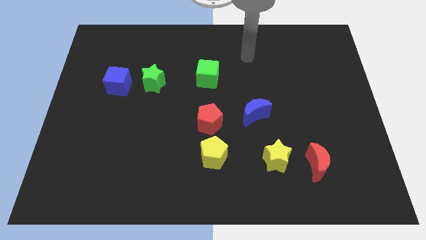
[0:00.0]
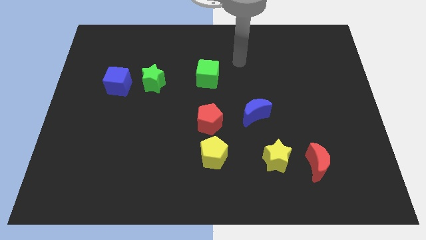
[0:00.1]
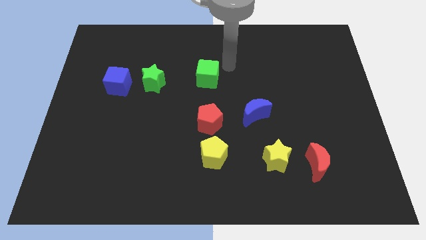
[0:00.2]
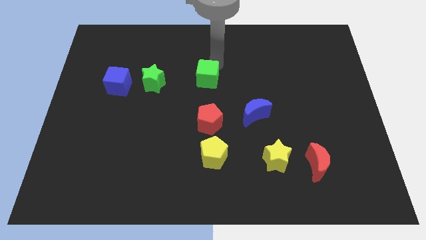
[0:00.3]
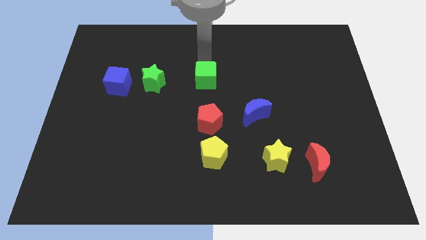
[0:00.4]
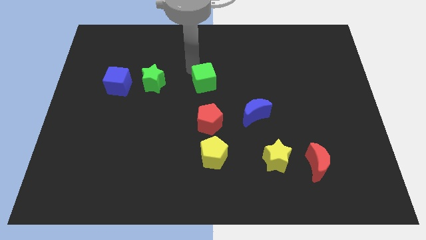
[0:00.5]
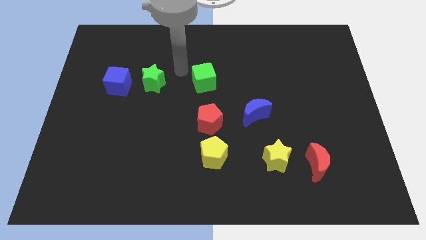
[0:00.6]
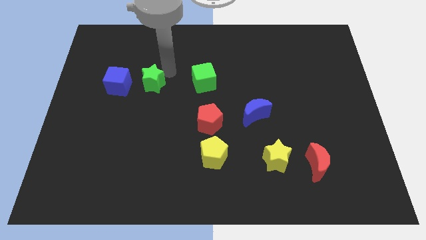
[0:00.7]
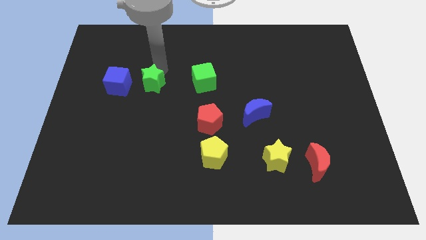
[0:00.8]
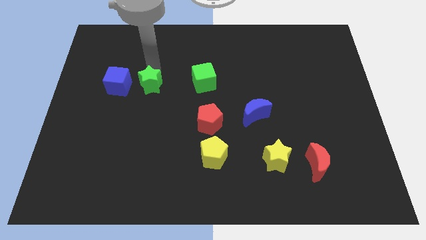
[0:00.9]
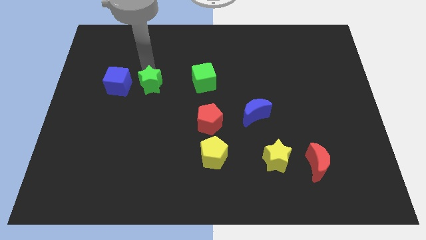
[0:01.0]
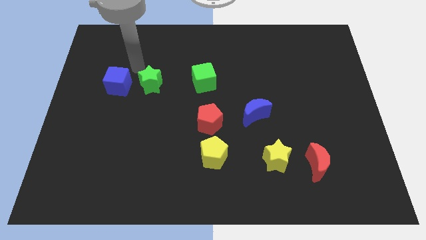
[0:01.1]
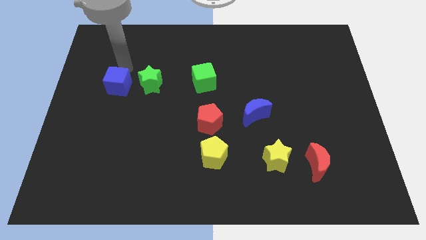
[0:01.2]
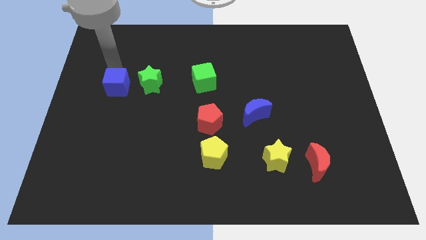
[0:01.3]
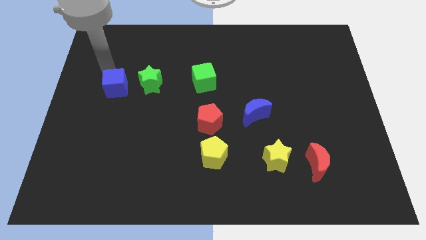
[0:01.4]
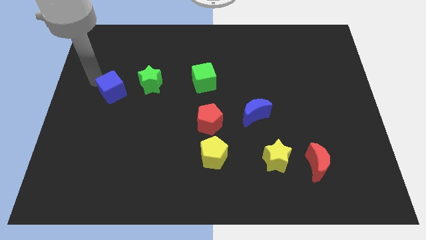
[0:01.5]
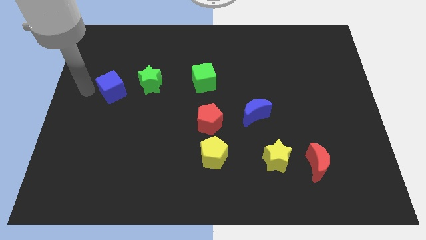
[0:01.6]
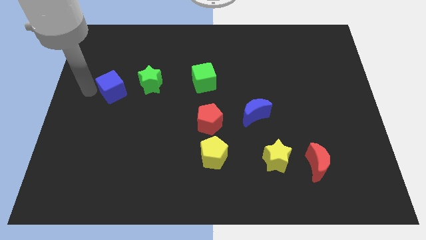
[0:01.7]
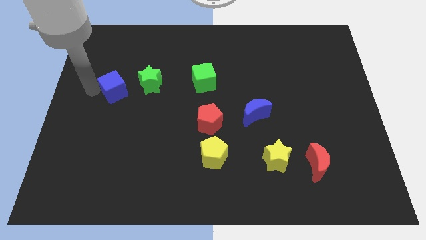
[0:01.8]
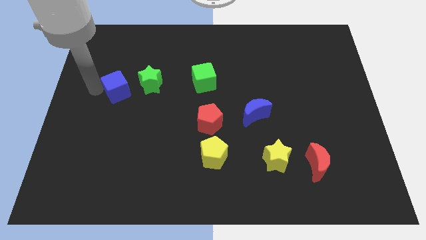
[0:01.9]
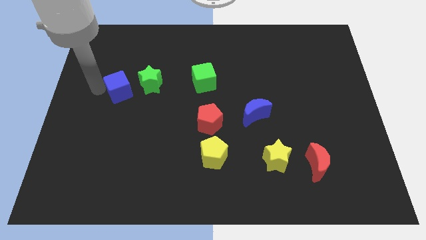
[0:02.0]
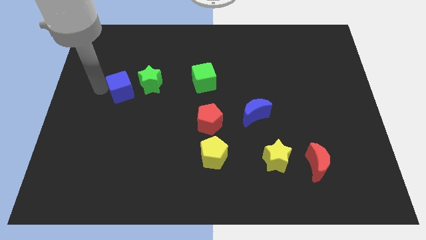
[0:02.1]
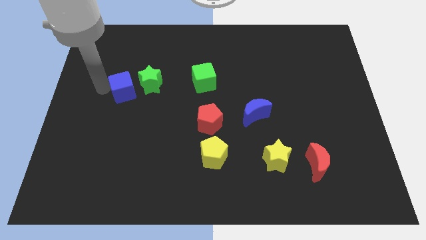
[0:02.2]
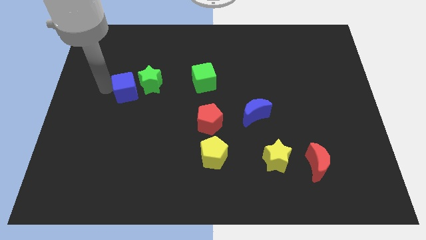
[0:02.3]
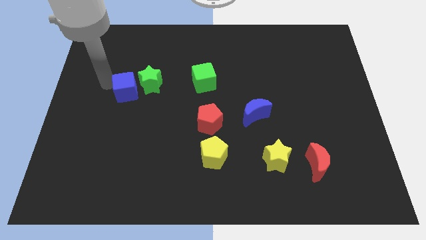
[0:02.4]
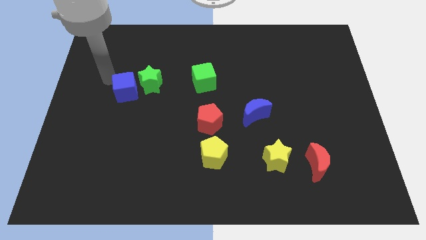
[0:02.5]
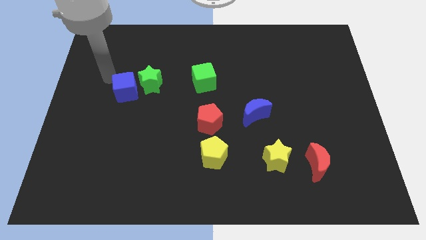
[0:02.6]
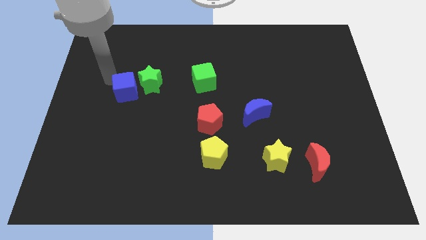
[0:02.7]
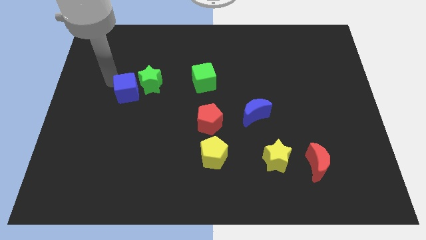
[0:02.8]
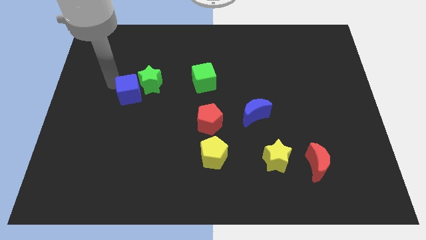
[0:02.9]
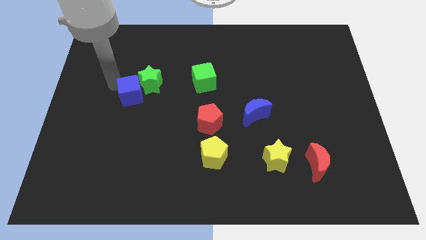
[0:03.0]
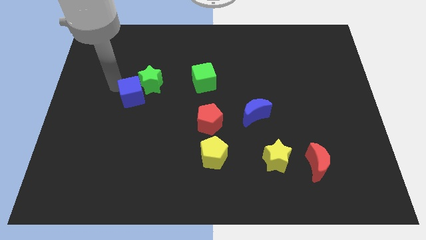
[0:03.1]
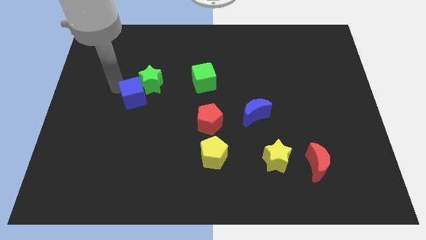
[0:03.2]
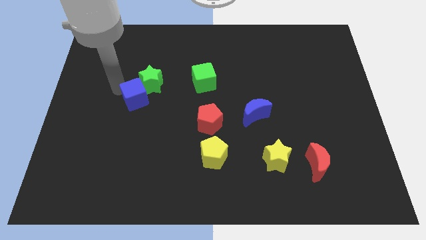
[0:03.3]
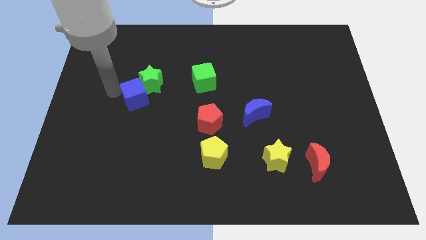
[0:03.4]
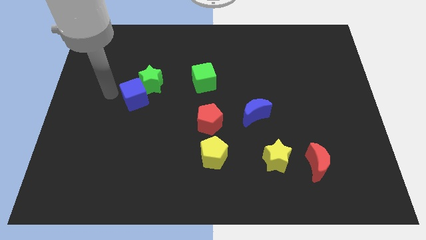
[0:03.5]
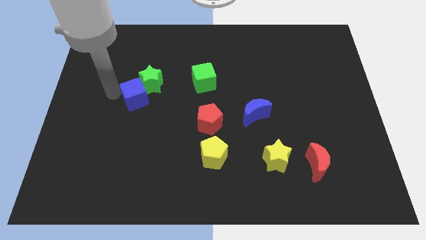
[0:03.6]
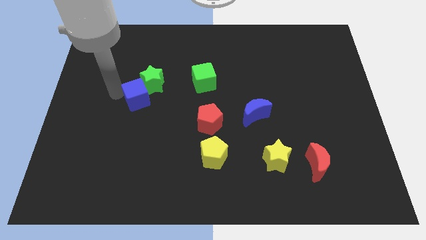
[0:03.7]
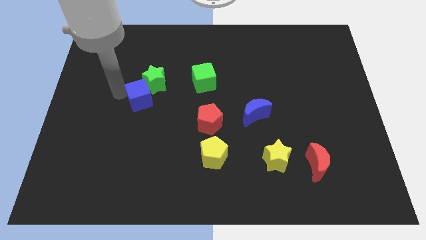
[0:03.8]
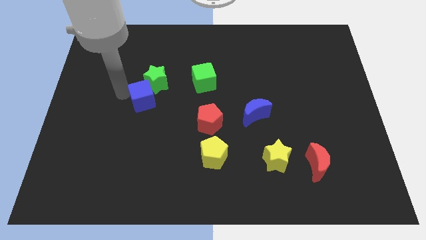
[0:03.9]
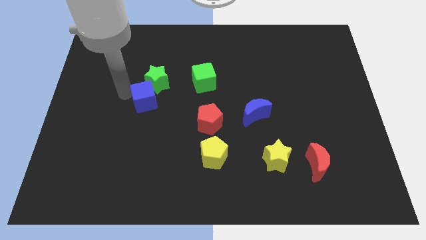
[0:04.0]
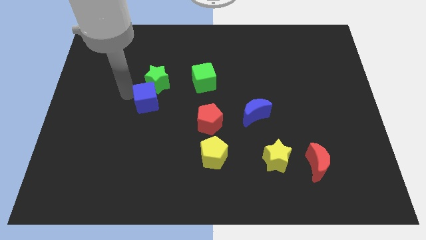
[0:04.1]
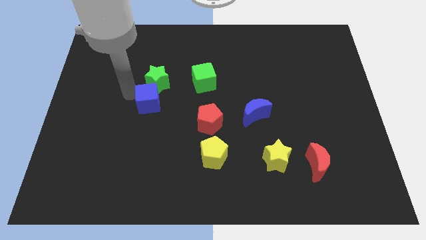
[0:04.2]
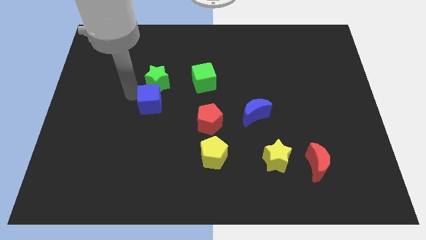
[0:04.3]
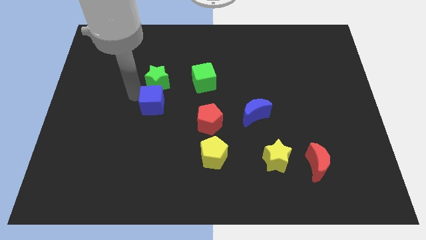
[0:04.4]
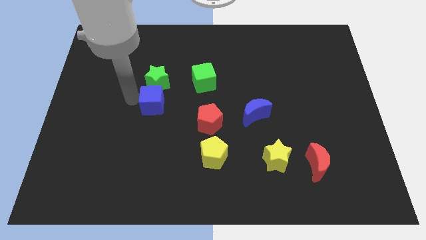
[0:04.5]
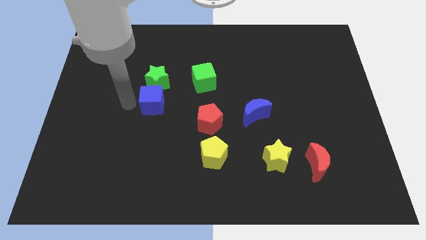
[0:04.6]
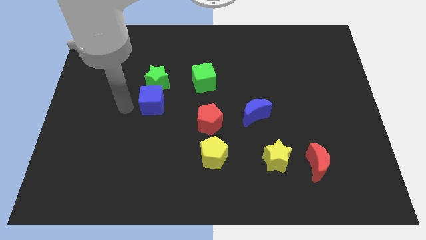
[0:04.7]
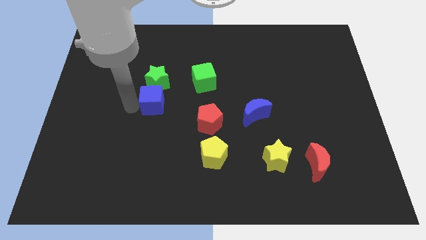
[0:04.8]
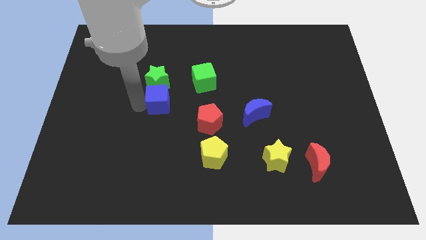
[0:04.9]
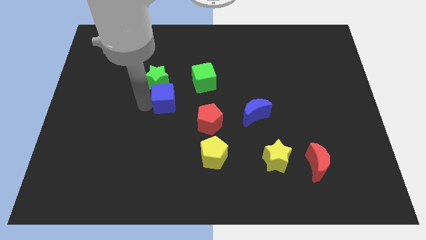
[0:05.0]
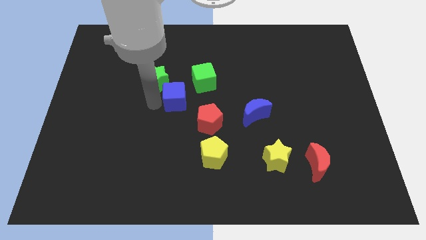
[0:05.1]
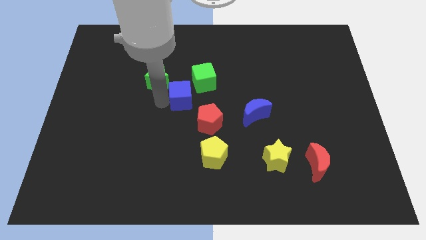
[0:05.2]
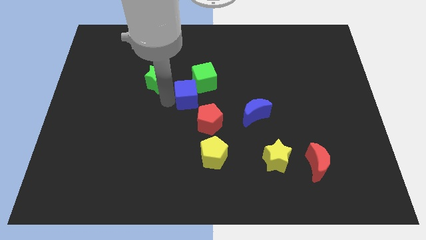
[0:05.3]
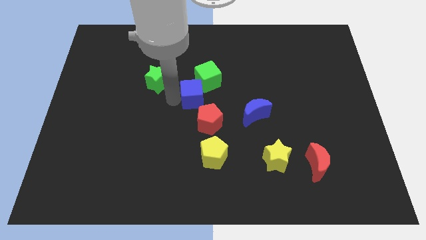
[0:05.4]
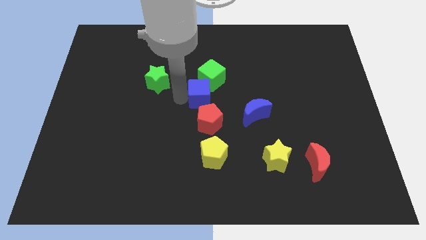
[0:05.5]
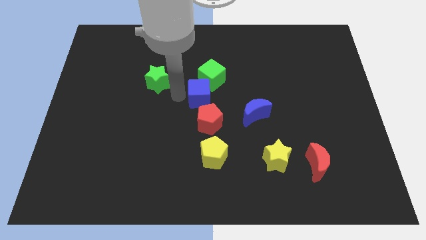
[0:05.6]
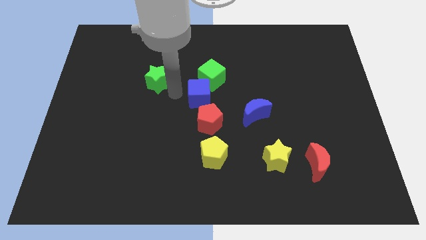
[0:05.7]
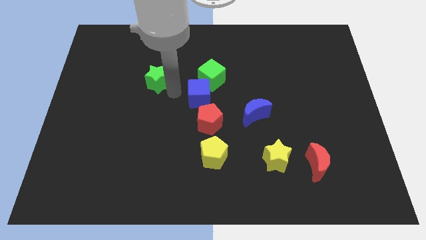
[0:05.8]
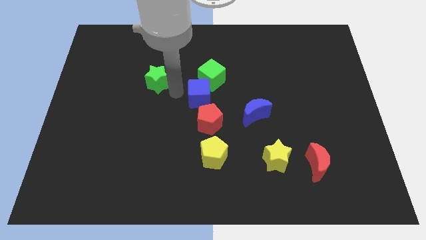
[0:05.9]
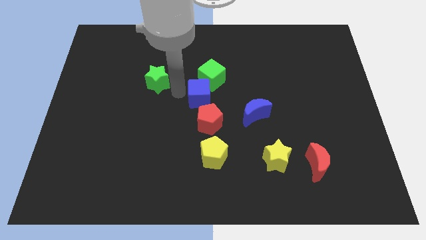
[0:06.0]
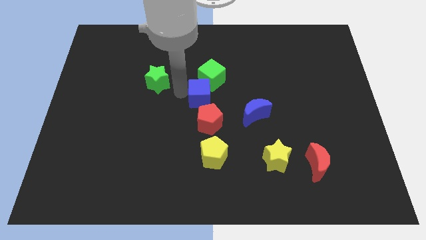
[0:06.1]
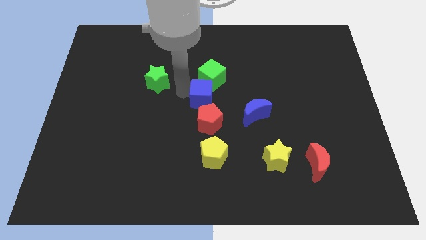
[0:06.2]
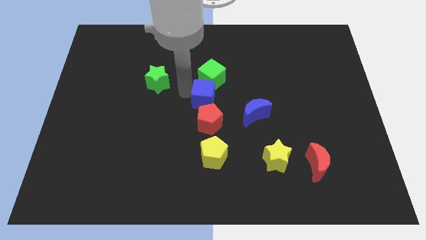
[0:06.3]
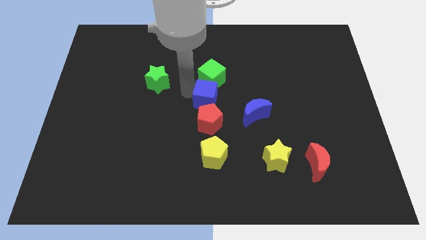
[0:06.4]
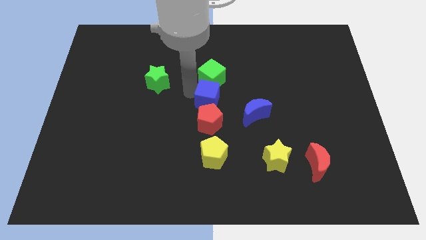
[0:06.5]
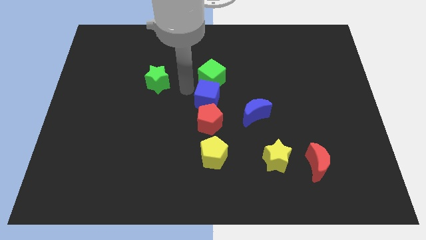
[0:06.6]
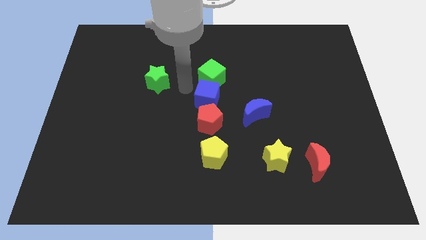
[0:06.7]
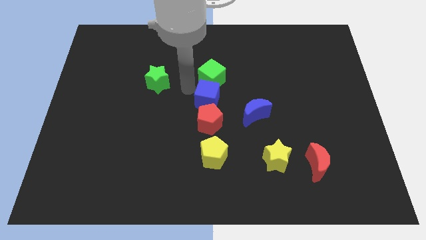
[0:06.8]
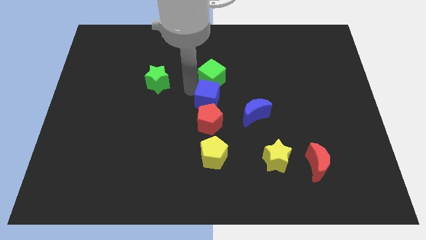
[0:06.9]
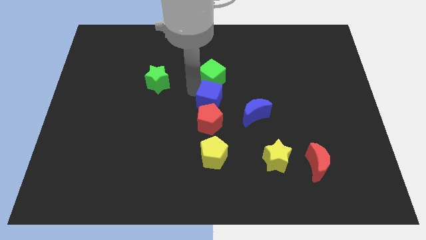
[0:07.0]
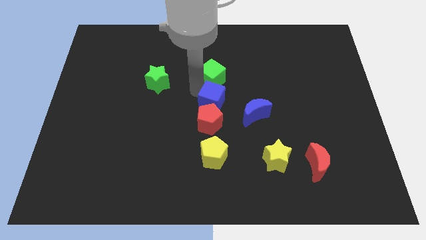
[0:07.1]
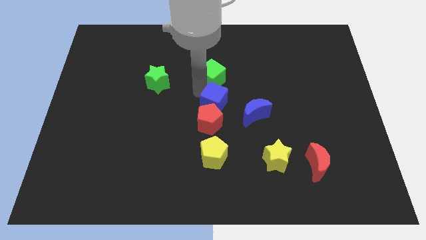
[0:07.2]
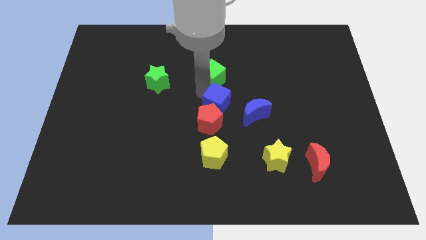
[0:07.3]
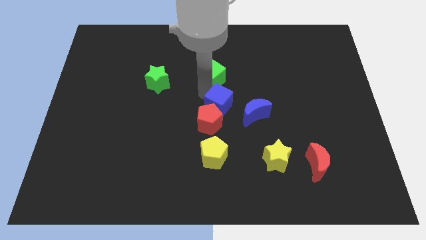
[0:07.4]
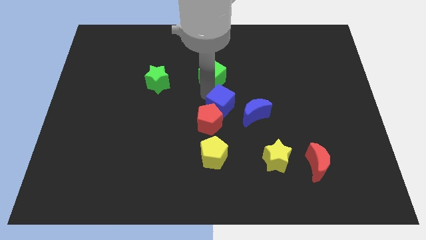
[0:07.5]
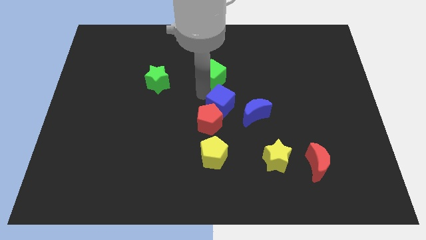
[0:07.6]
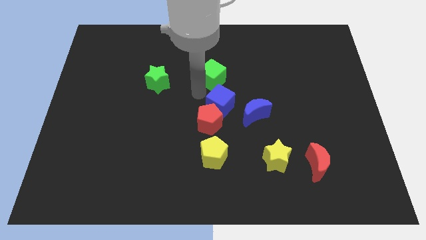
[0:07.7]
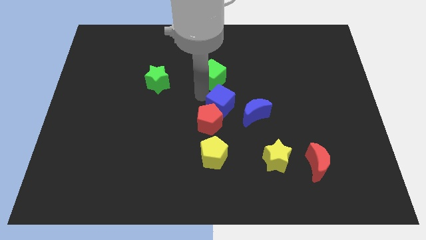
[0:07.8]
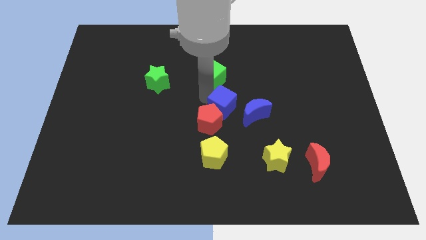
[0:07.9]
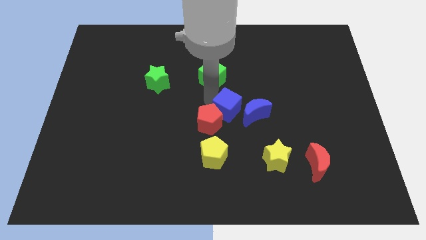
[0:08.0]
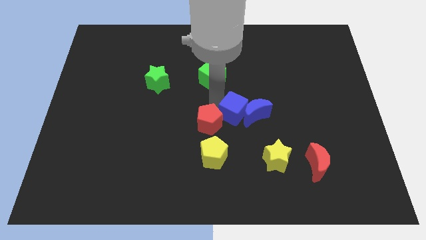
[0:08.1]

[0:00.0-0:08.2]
push the blue cube close to the blue moon
